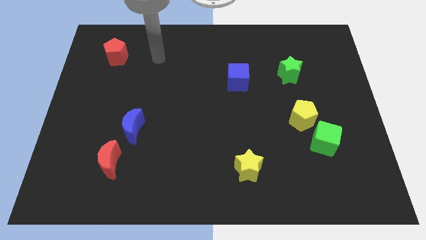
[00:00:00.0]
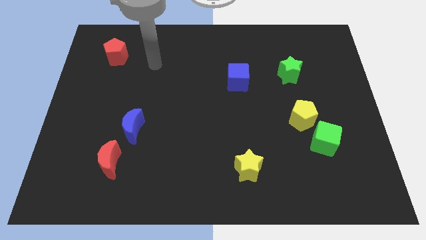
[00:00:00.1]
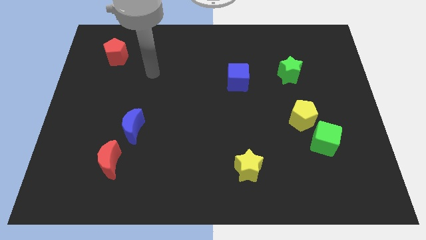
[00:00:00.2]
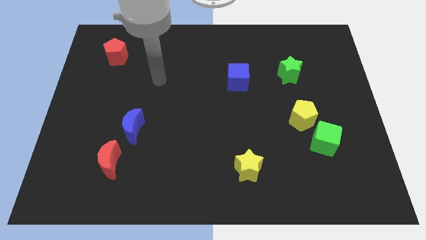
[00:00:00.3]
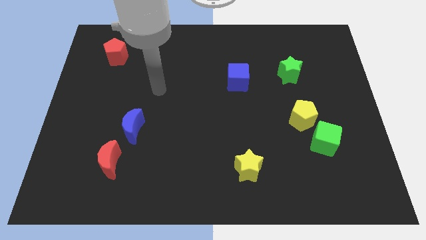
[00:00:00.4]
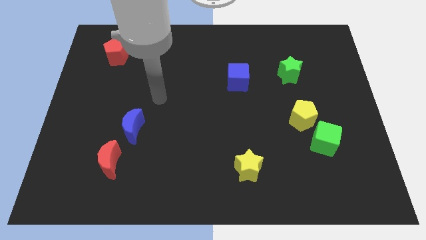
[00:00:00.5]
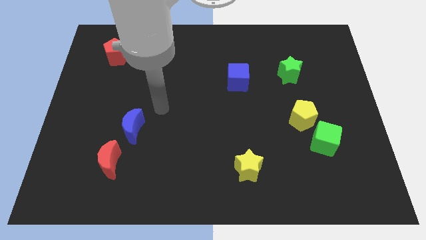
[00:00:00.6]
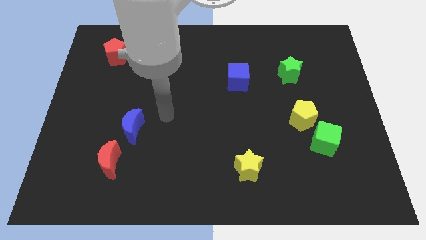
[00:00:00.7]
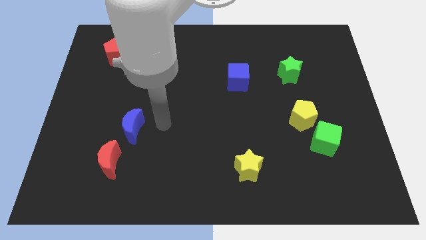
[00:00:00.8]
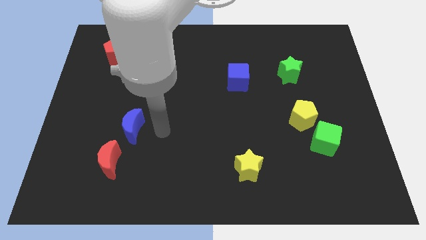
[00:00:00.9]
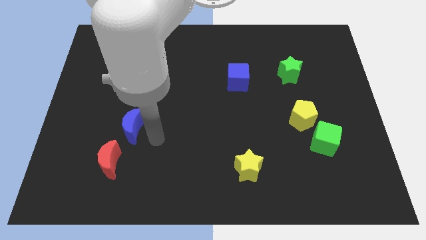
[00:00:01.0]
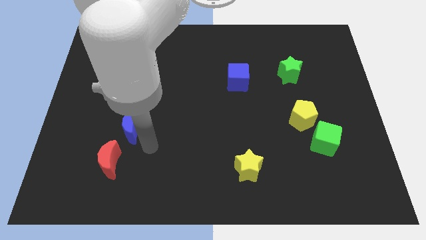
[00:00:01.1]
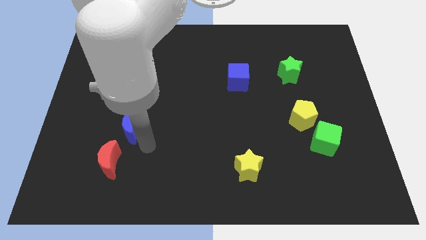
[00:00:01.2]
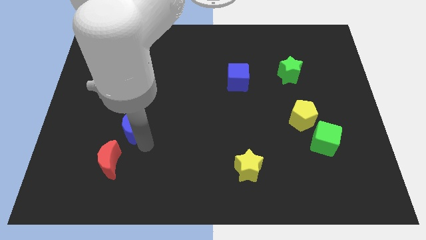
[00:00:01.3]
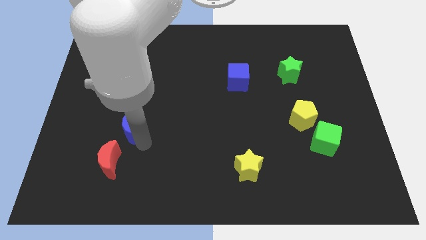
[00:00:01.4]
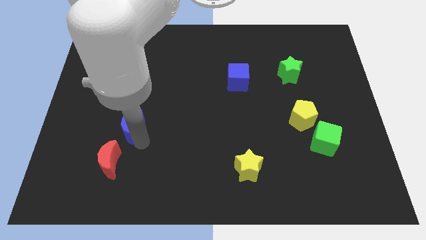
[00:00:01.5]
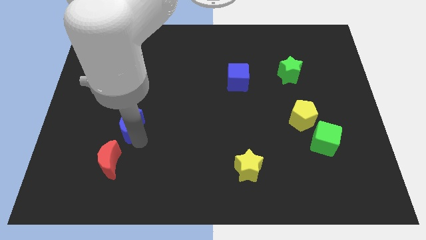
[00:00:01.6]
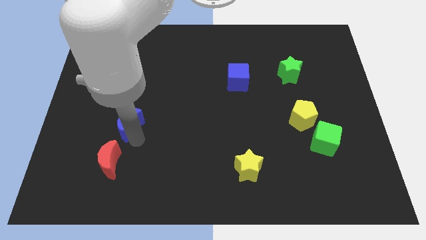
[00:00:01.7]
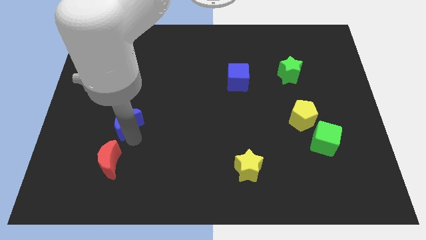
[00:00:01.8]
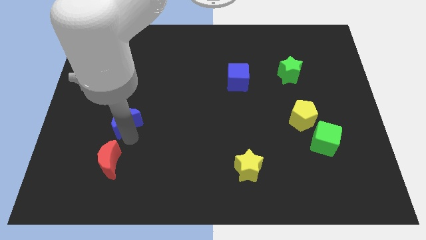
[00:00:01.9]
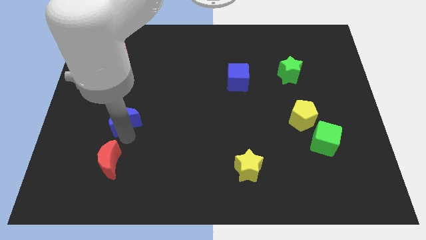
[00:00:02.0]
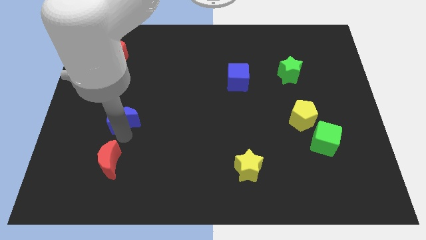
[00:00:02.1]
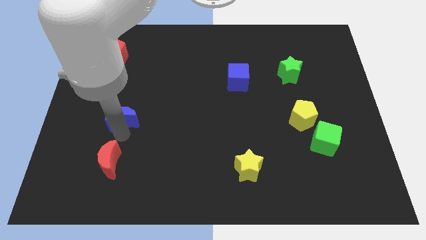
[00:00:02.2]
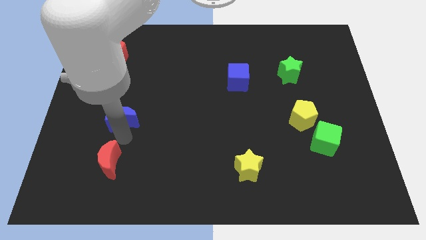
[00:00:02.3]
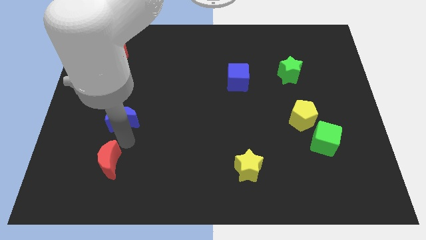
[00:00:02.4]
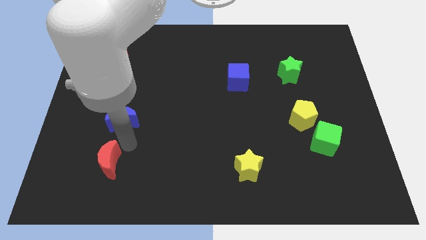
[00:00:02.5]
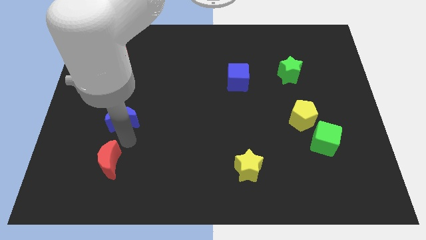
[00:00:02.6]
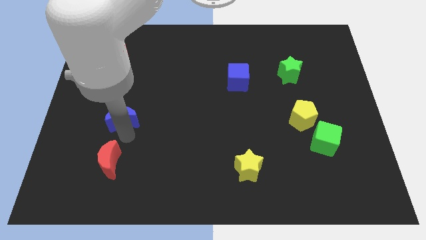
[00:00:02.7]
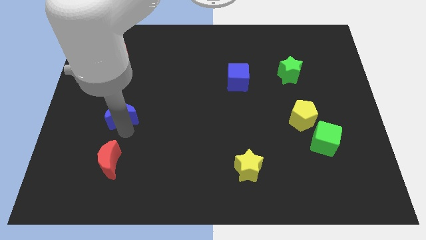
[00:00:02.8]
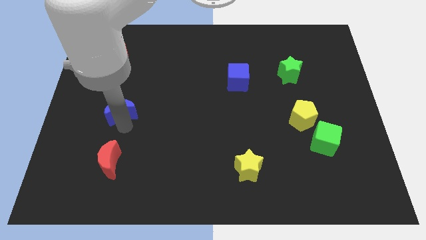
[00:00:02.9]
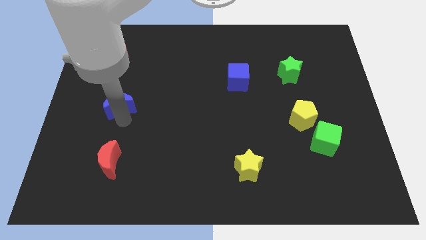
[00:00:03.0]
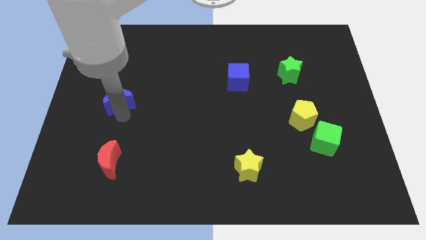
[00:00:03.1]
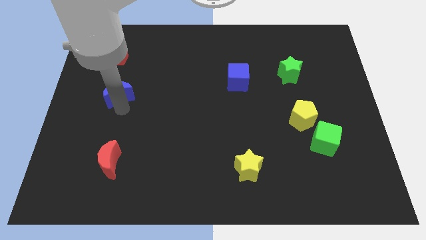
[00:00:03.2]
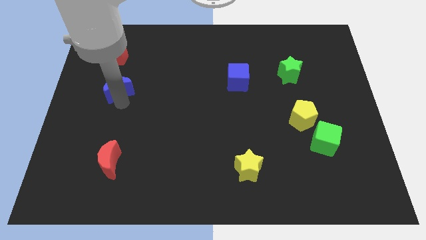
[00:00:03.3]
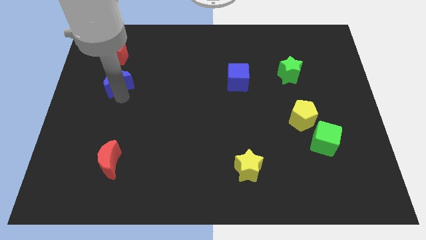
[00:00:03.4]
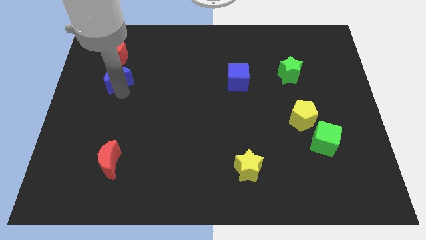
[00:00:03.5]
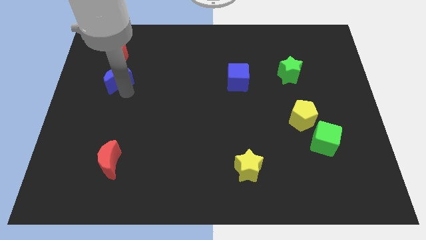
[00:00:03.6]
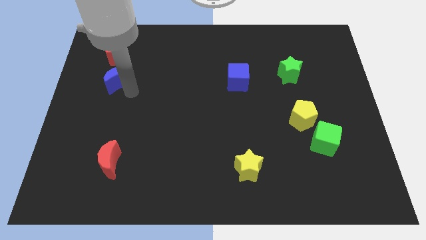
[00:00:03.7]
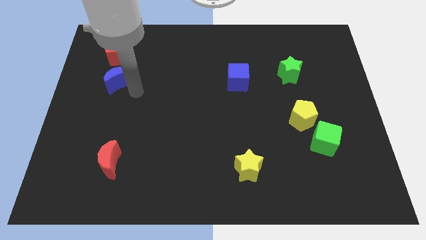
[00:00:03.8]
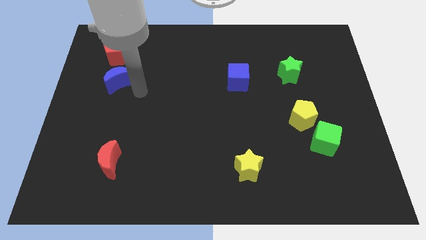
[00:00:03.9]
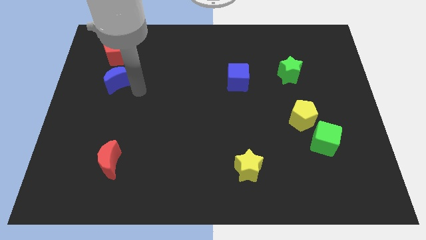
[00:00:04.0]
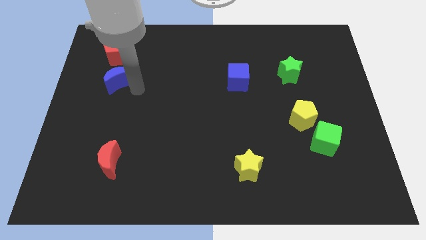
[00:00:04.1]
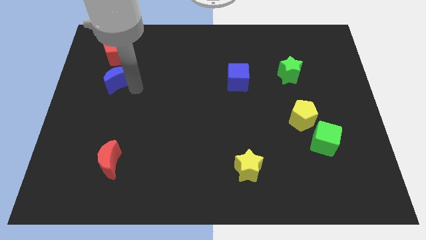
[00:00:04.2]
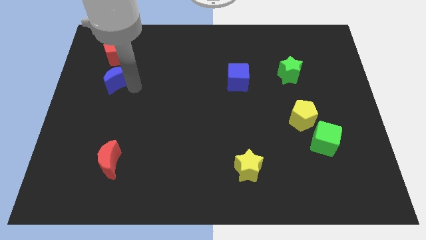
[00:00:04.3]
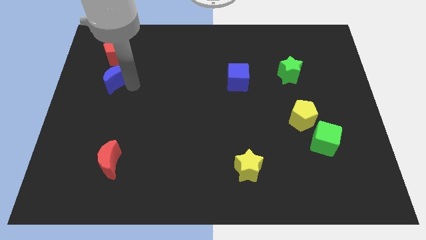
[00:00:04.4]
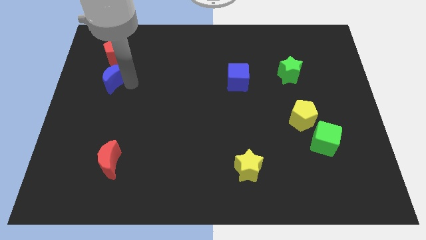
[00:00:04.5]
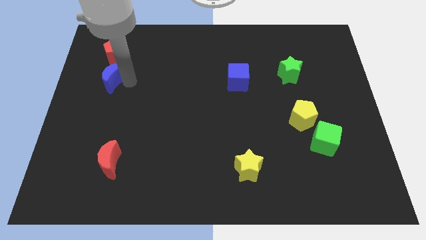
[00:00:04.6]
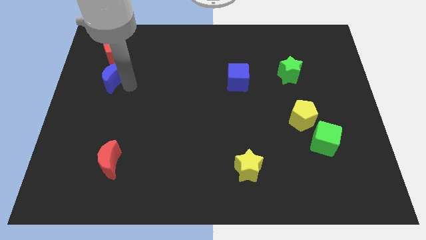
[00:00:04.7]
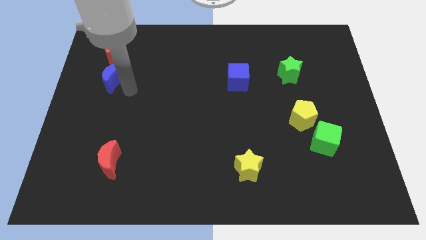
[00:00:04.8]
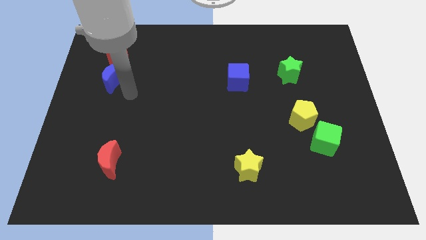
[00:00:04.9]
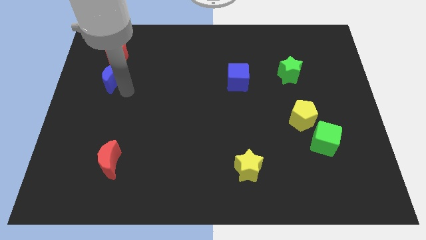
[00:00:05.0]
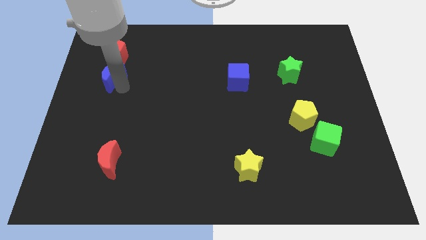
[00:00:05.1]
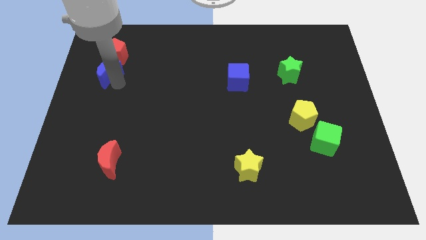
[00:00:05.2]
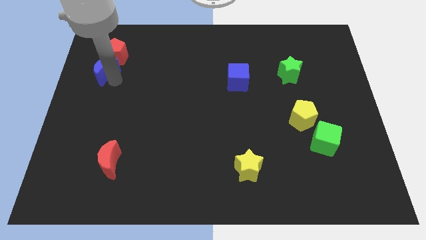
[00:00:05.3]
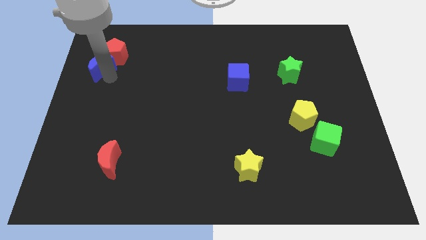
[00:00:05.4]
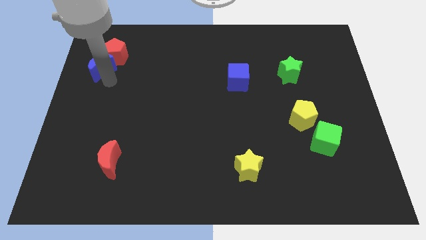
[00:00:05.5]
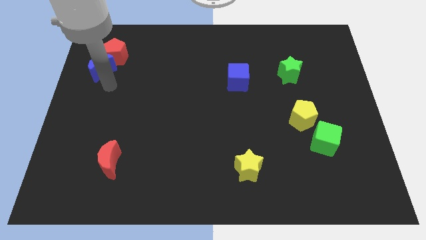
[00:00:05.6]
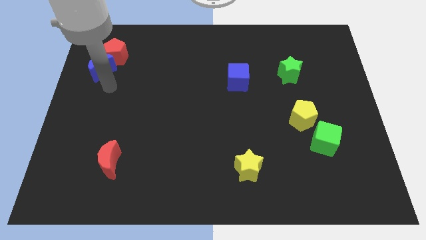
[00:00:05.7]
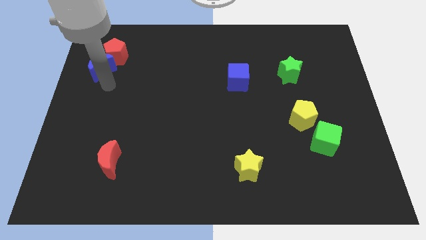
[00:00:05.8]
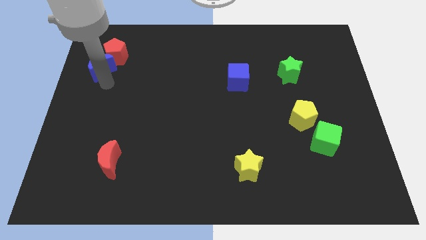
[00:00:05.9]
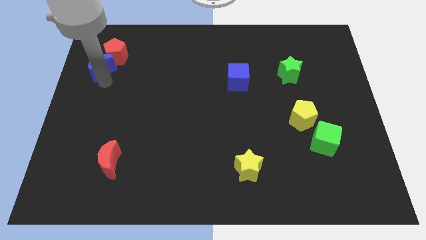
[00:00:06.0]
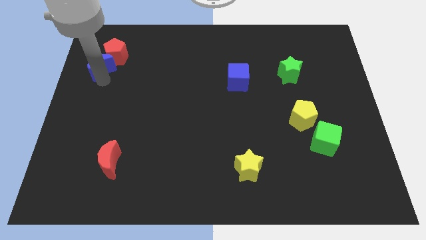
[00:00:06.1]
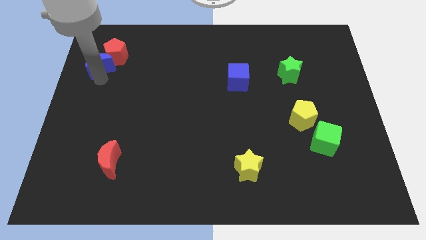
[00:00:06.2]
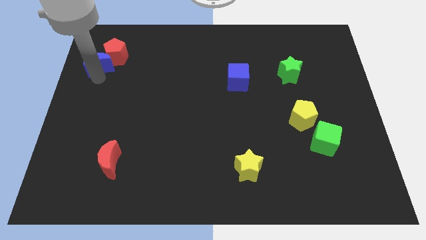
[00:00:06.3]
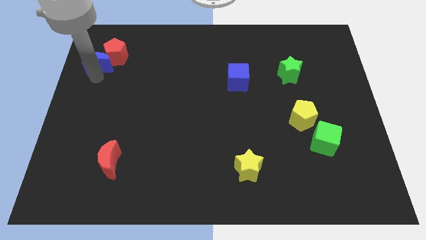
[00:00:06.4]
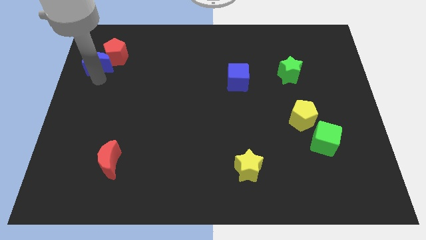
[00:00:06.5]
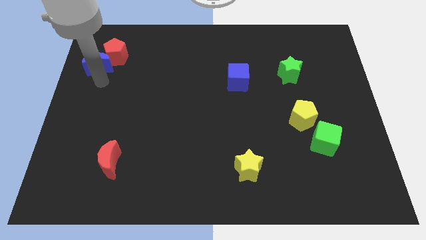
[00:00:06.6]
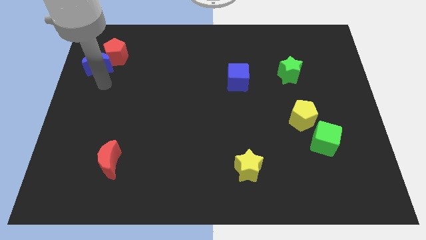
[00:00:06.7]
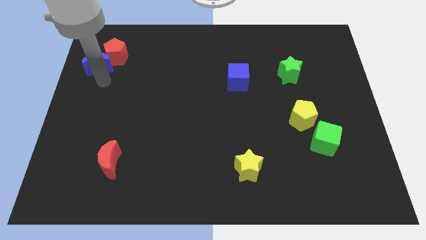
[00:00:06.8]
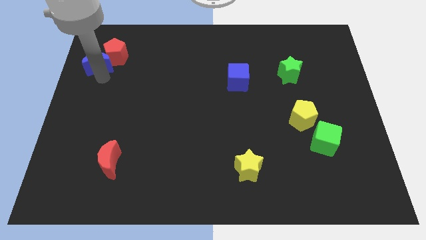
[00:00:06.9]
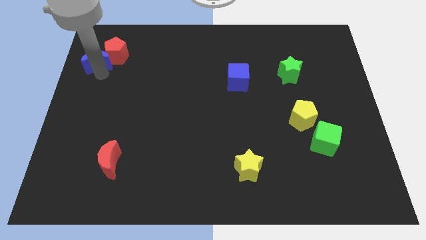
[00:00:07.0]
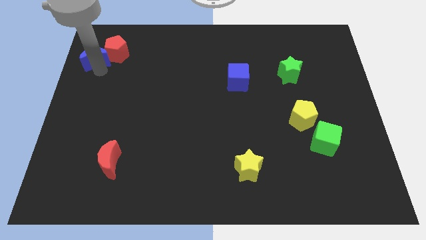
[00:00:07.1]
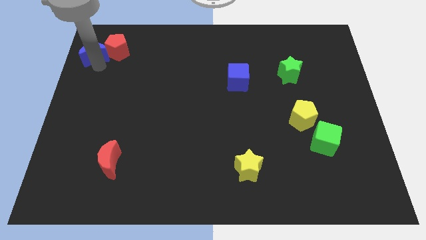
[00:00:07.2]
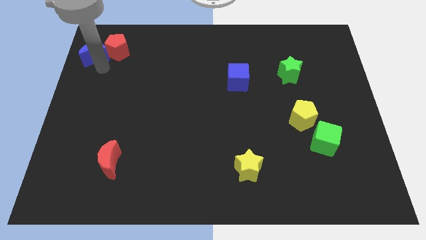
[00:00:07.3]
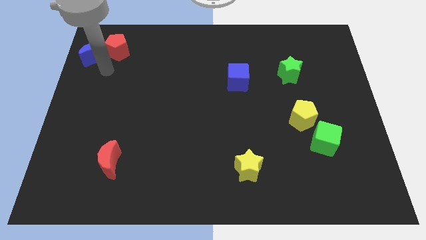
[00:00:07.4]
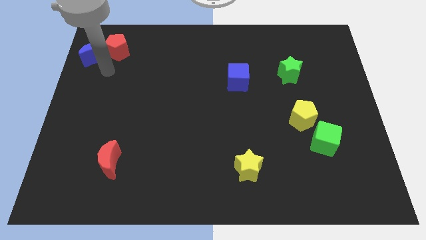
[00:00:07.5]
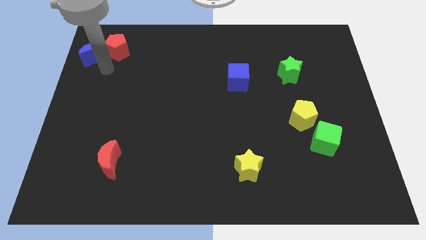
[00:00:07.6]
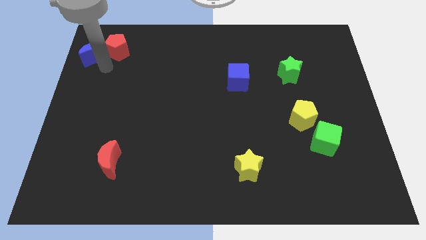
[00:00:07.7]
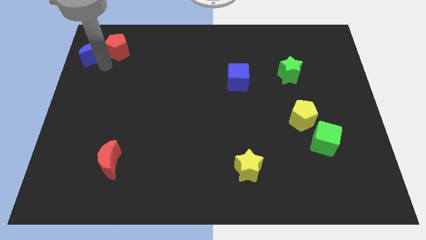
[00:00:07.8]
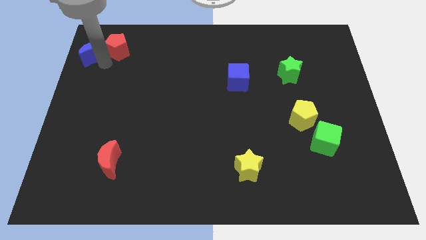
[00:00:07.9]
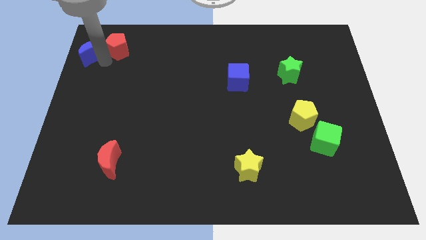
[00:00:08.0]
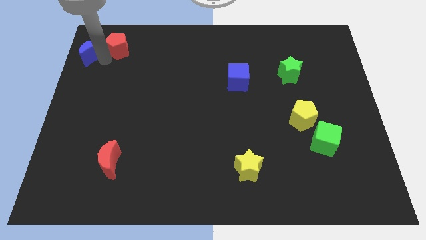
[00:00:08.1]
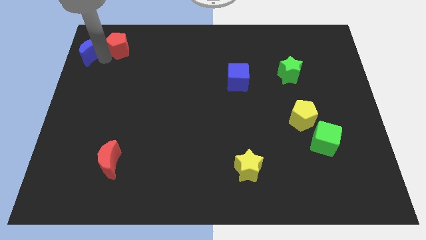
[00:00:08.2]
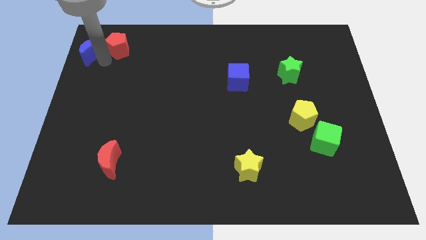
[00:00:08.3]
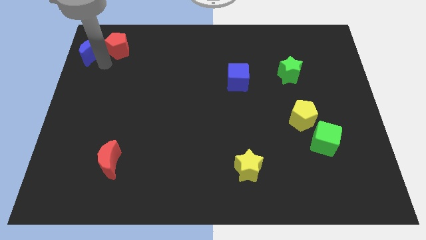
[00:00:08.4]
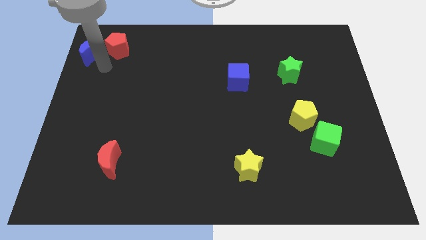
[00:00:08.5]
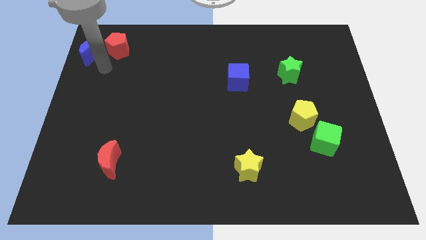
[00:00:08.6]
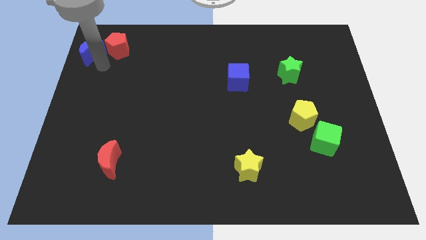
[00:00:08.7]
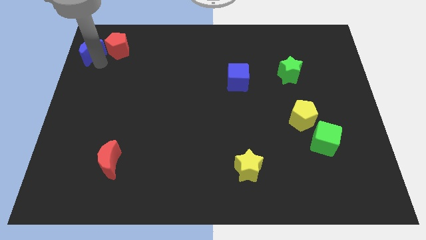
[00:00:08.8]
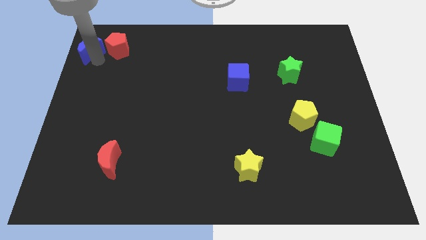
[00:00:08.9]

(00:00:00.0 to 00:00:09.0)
put the blue moon to the upper left corner
